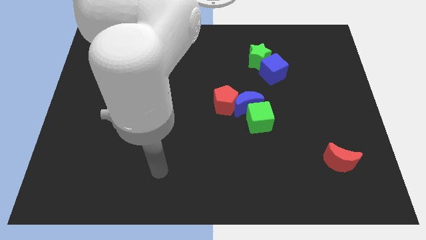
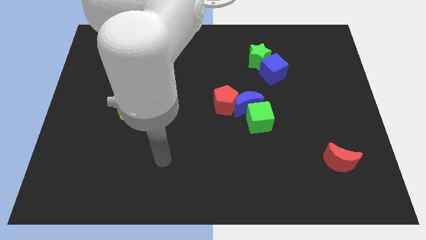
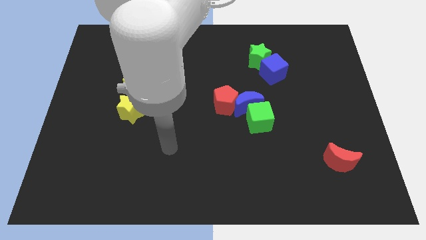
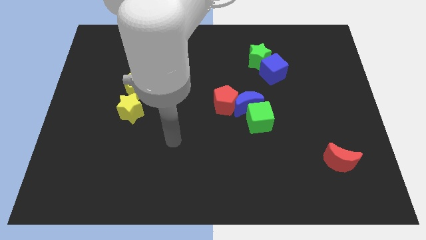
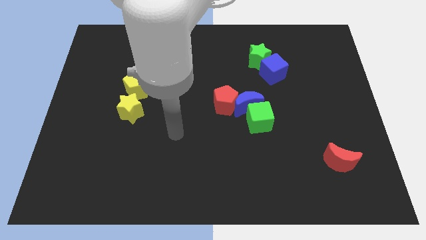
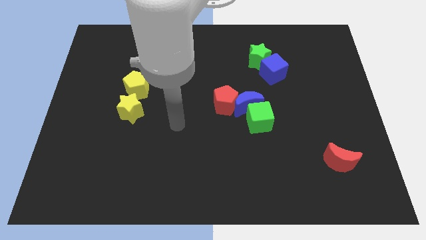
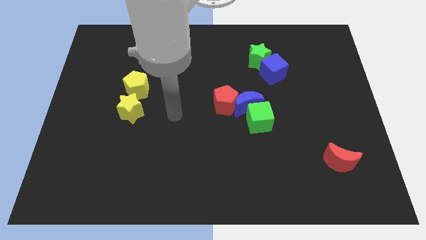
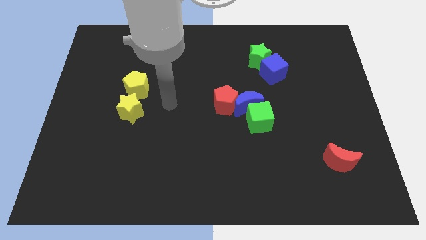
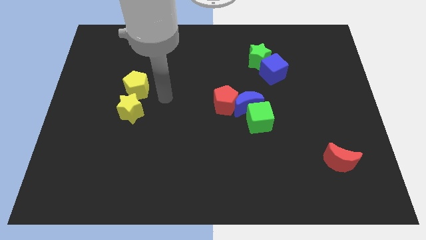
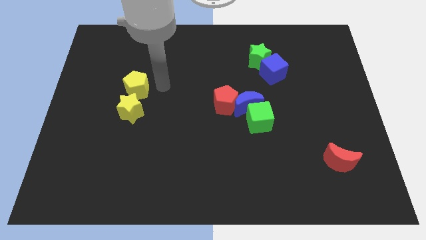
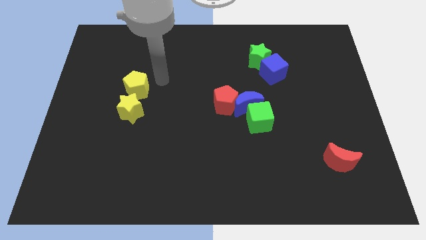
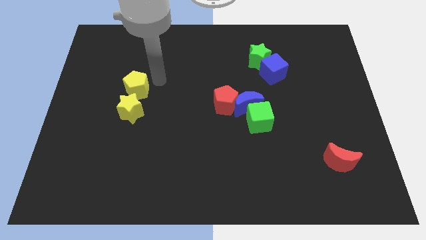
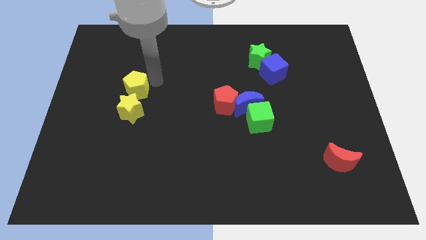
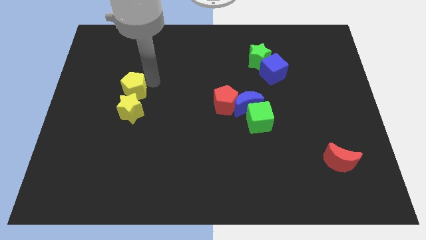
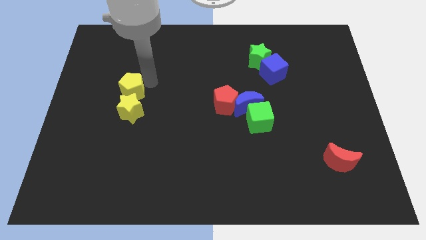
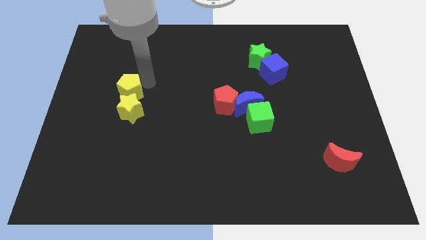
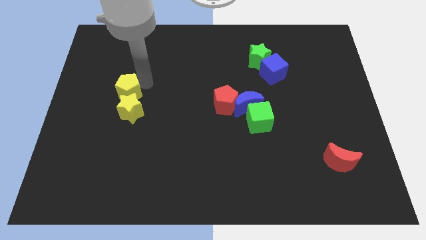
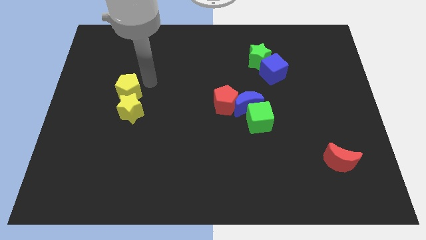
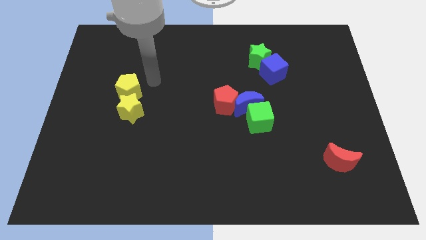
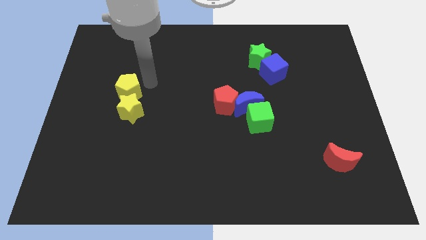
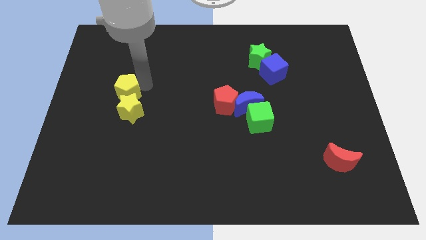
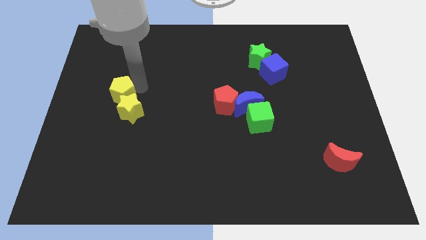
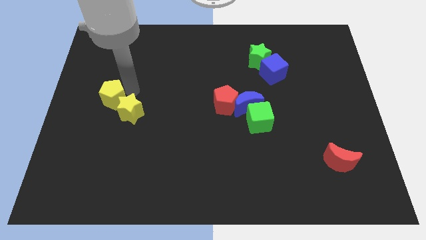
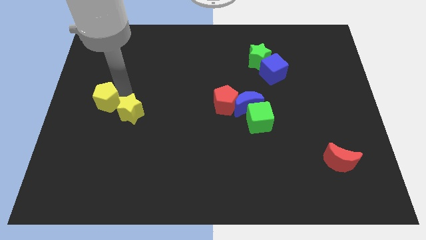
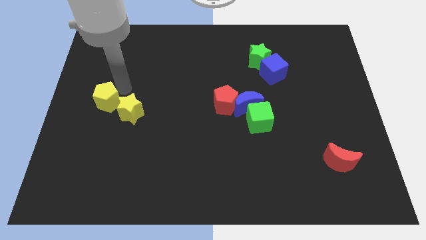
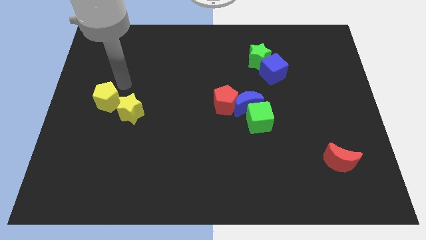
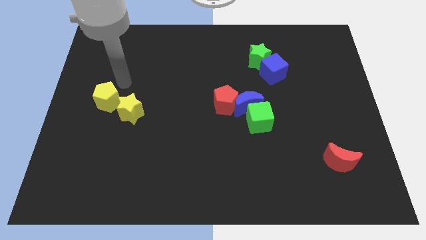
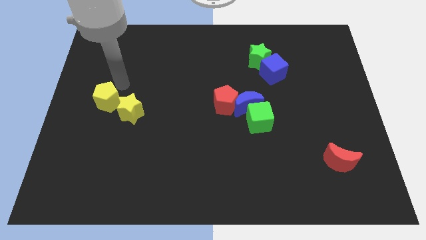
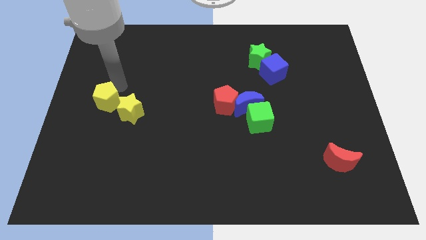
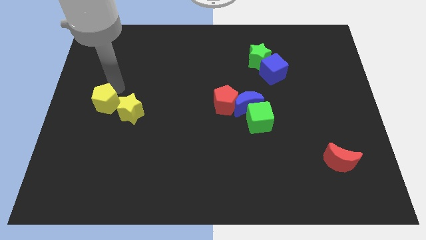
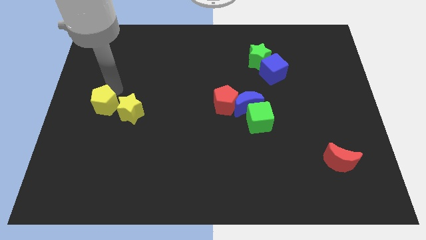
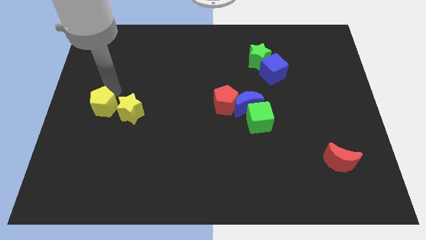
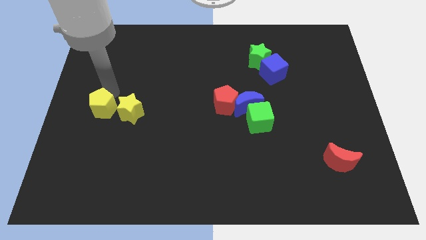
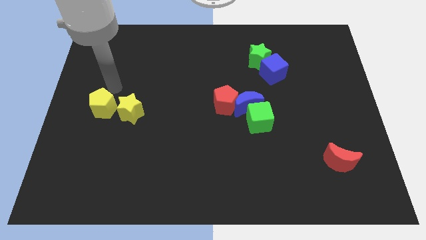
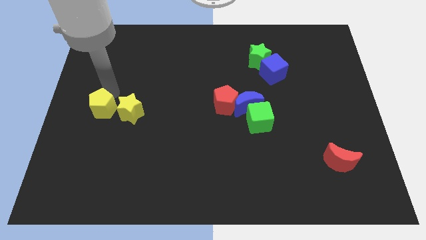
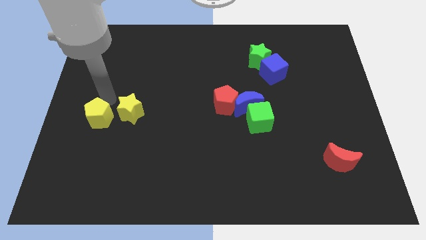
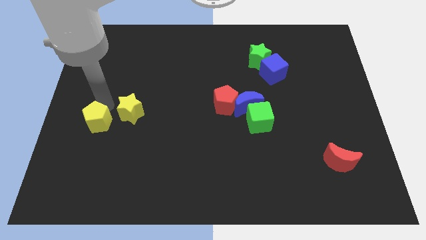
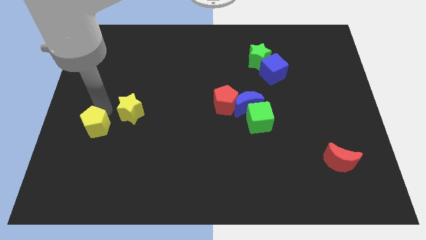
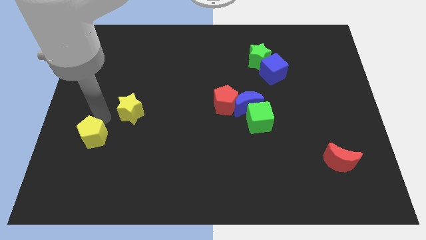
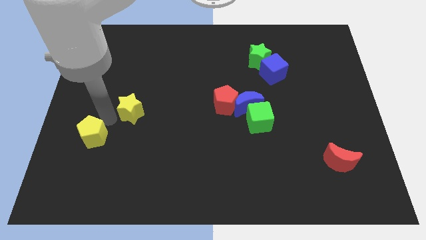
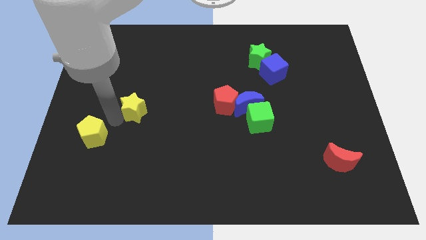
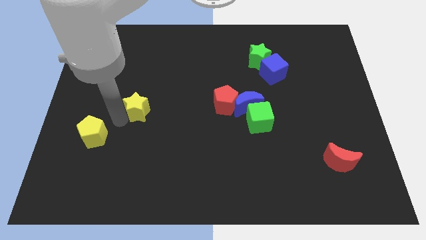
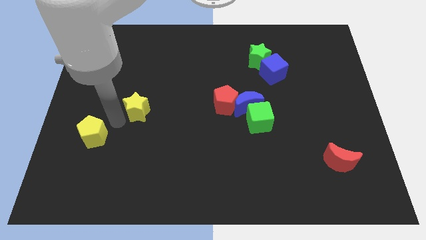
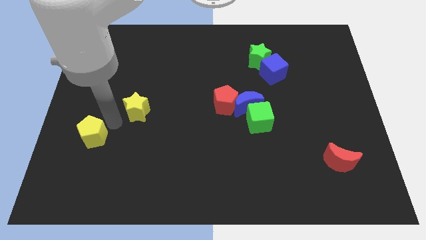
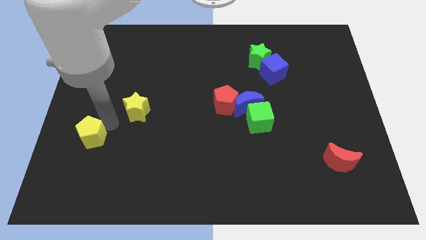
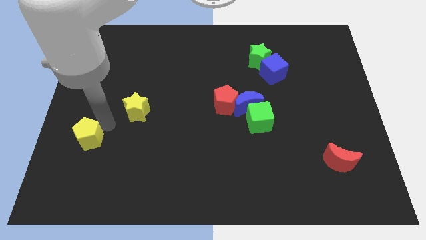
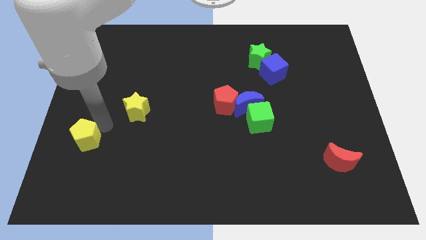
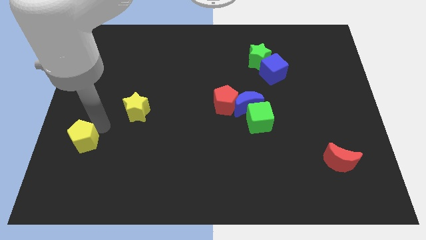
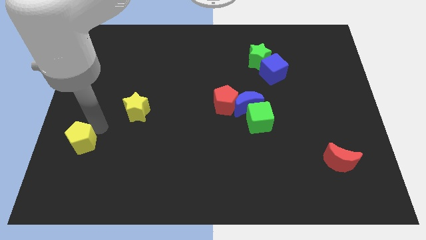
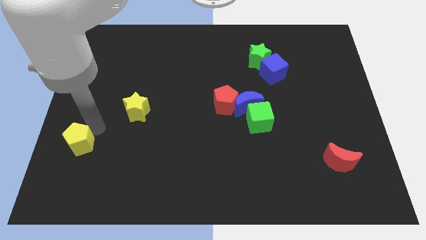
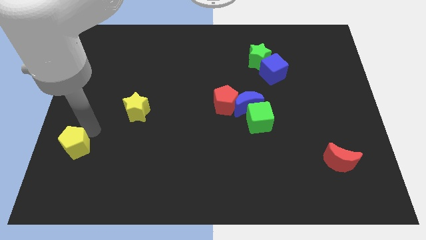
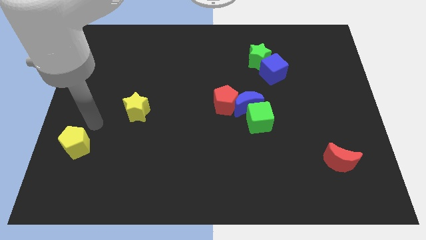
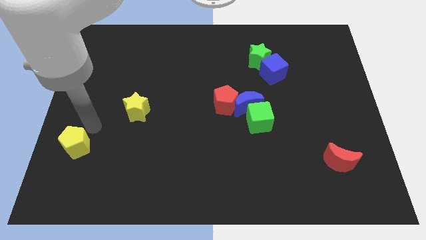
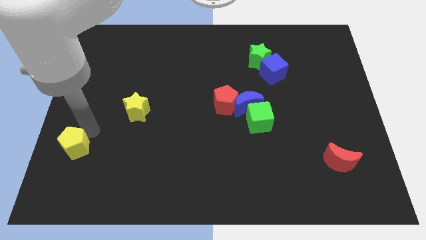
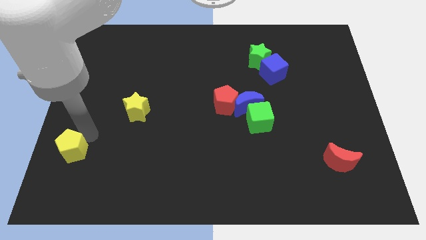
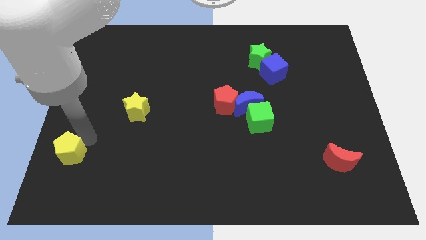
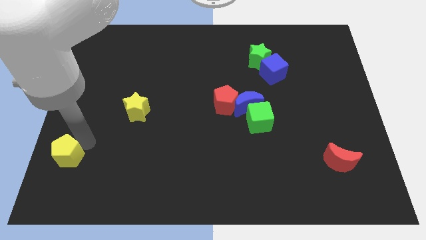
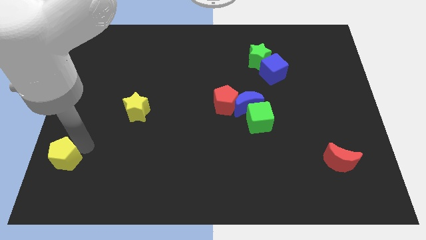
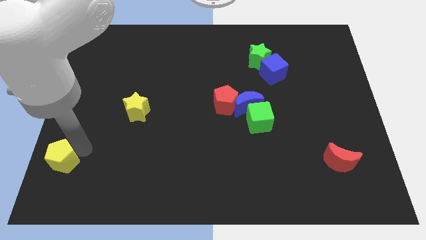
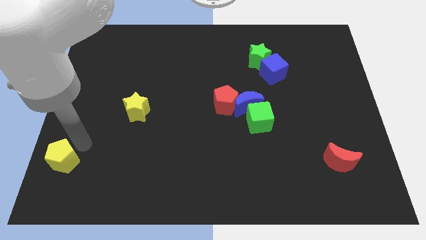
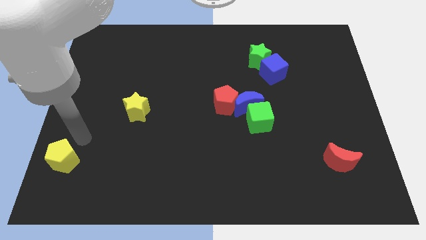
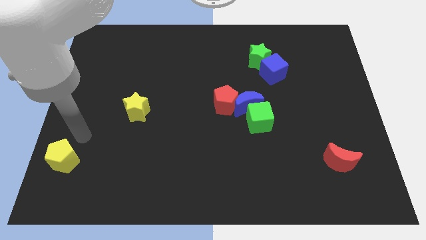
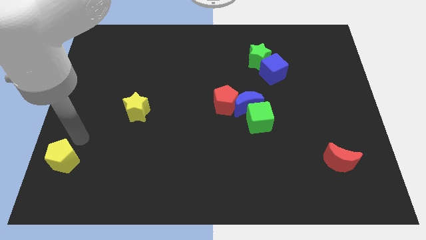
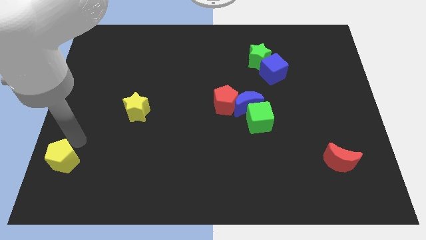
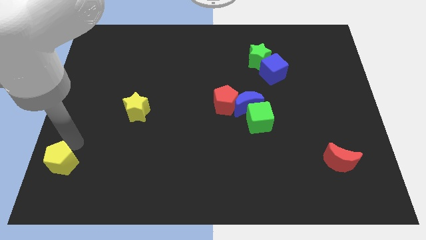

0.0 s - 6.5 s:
push the yellow pentagon to the bottom left corner

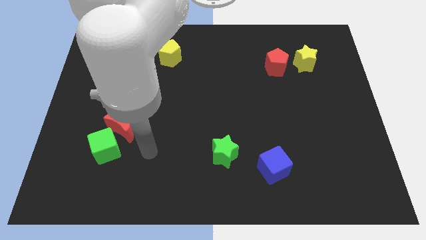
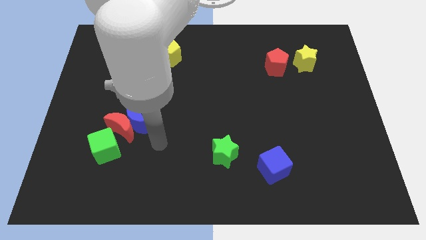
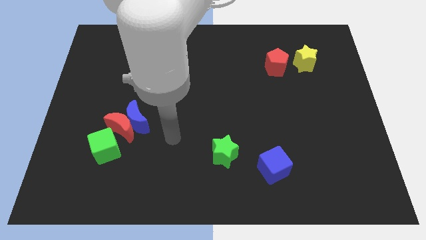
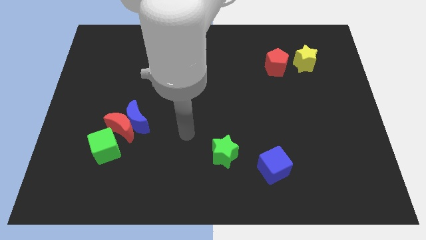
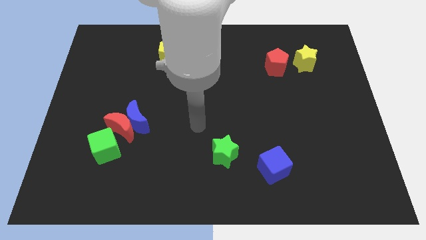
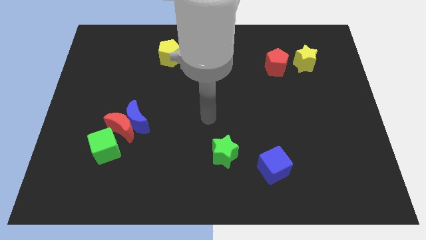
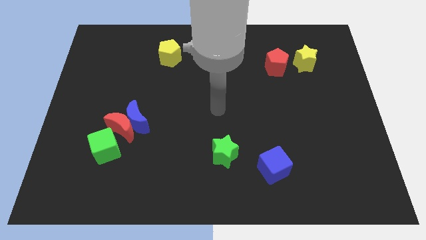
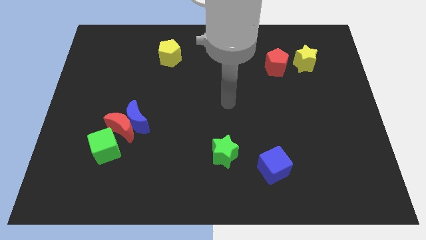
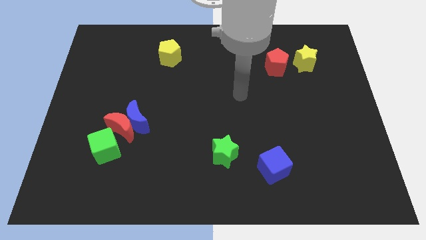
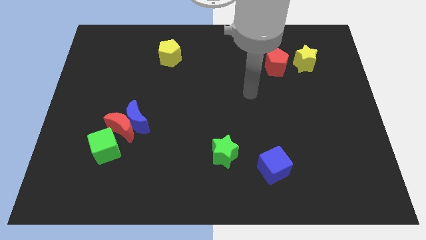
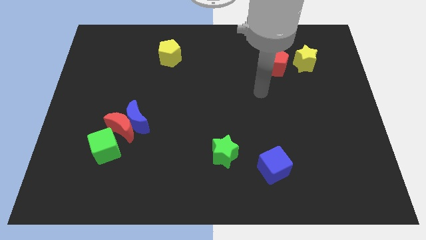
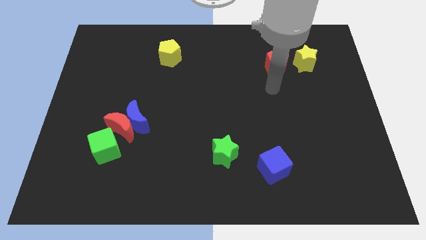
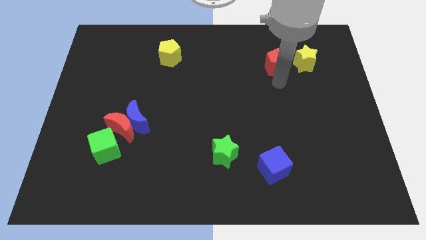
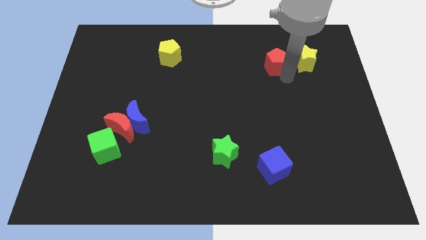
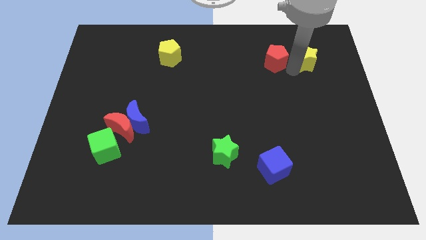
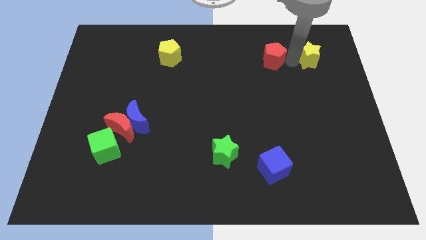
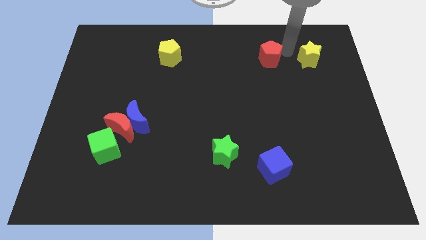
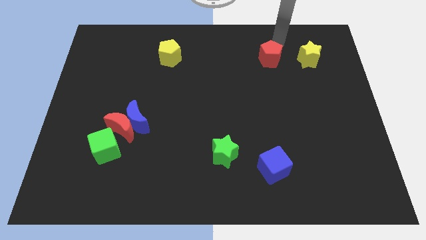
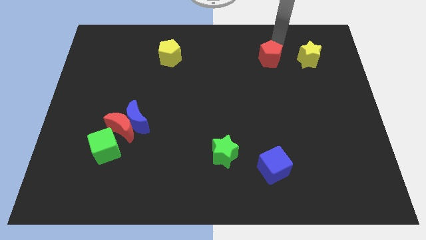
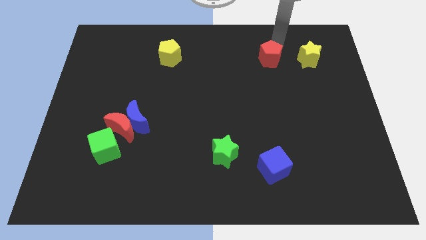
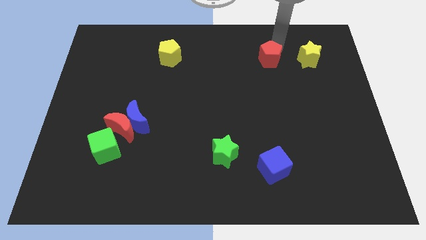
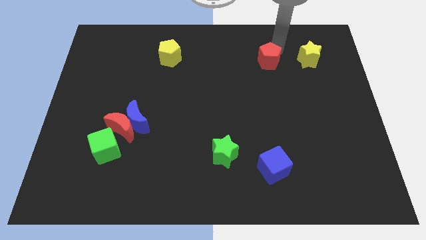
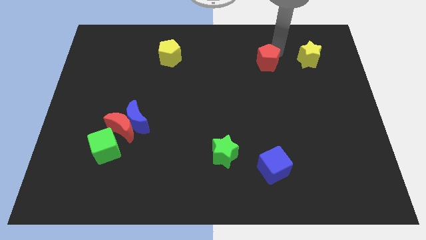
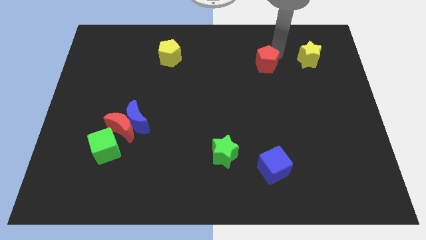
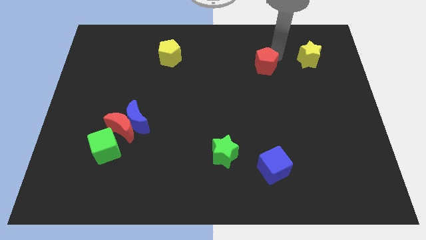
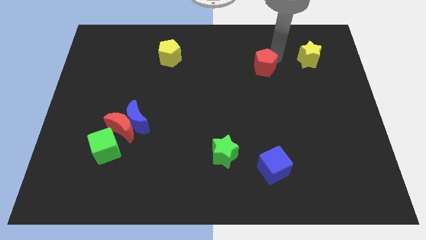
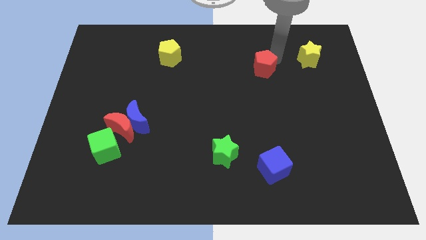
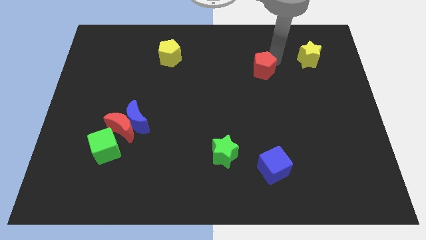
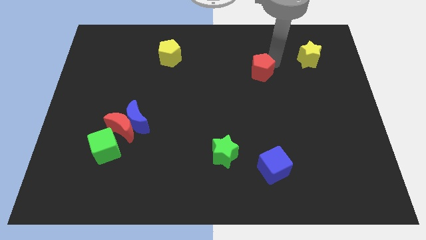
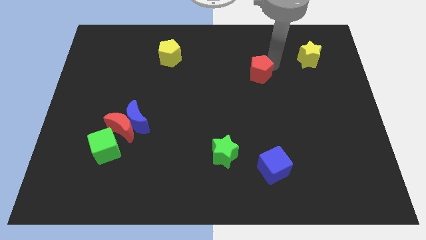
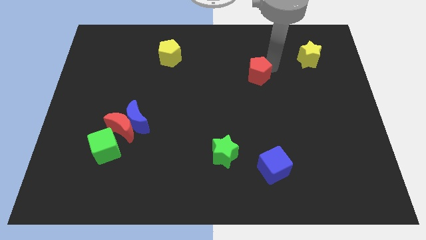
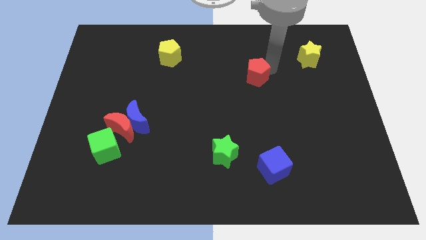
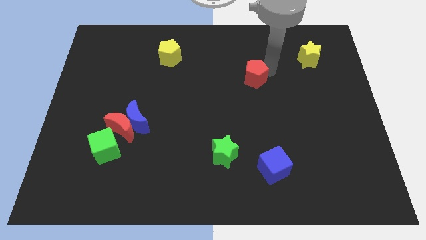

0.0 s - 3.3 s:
put the red pentagon to the middle of the board
